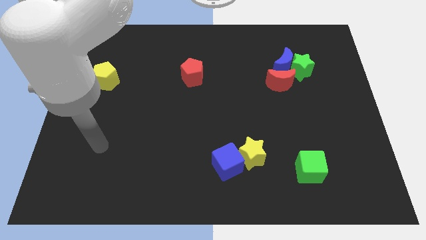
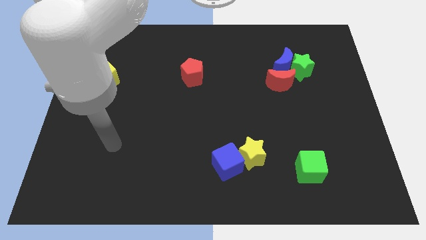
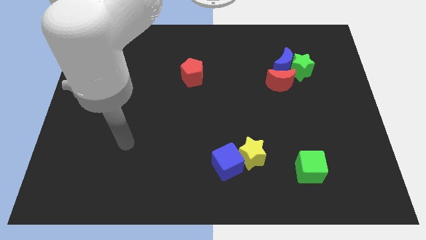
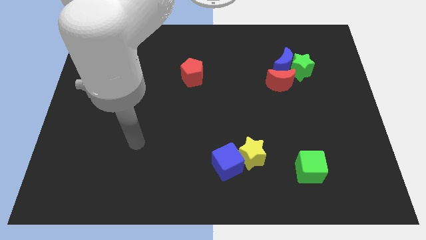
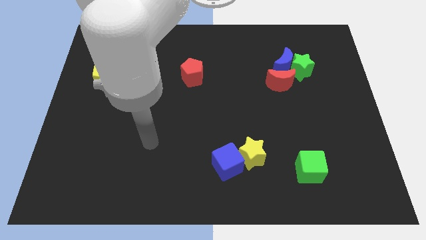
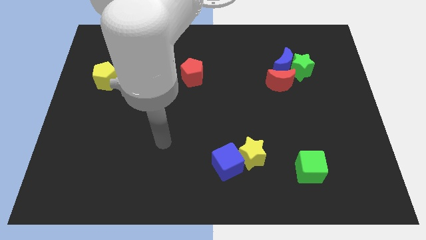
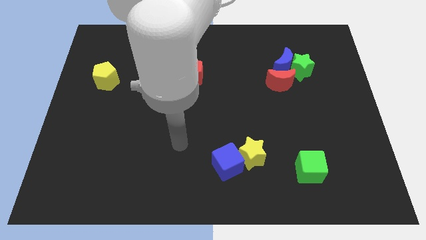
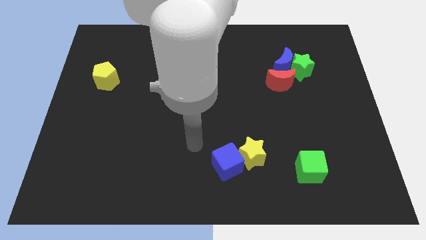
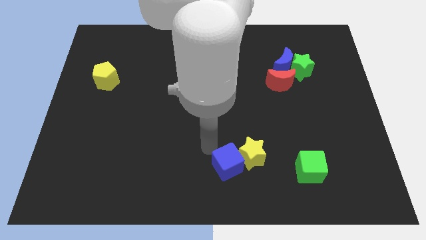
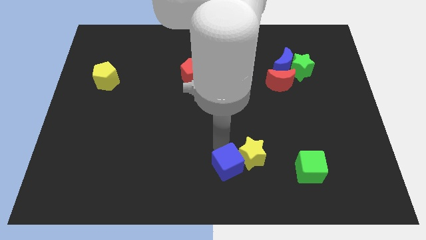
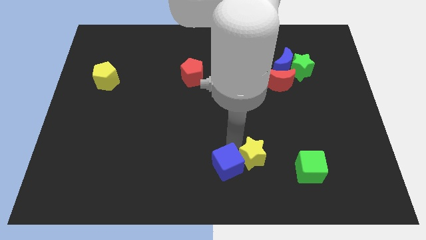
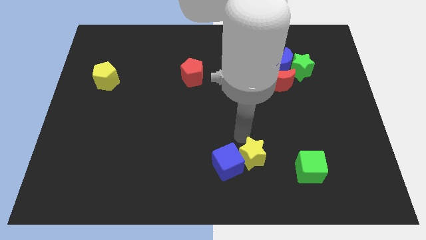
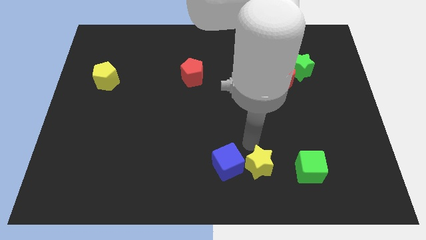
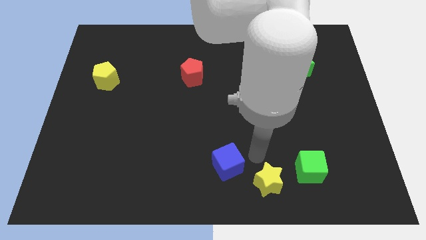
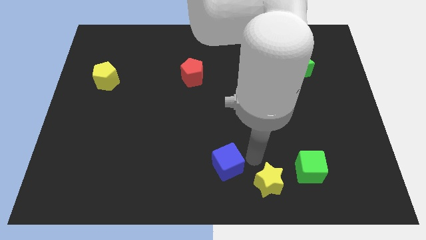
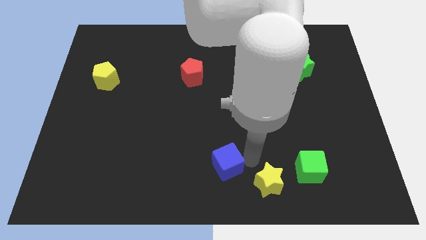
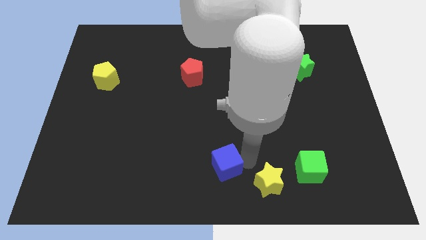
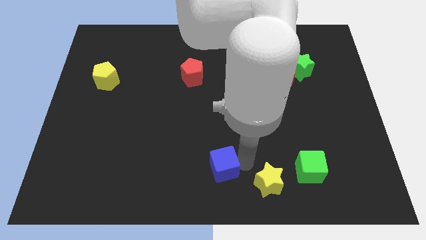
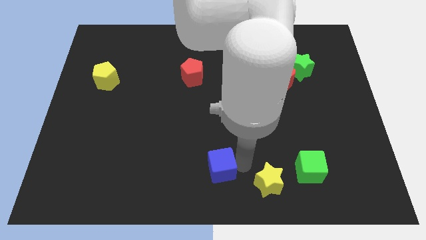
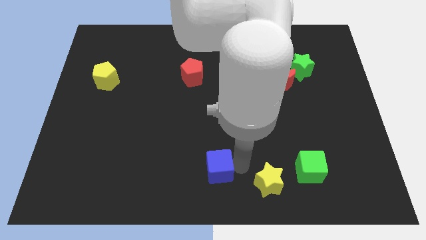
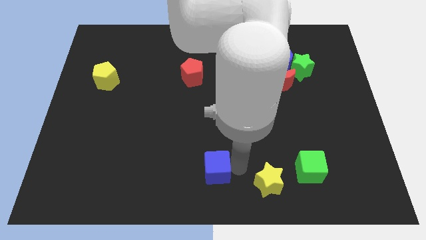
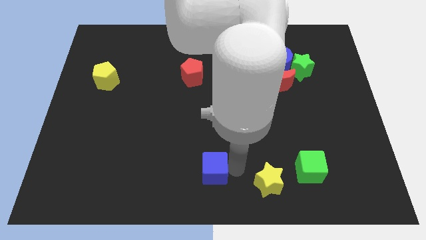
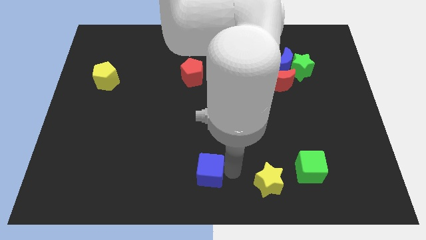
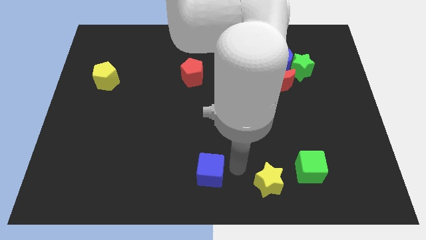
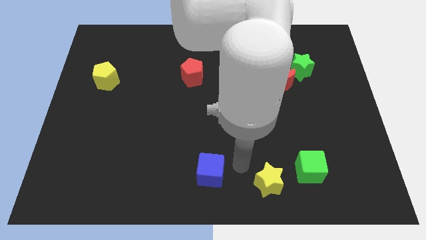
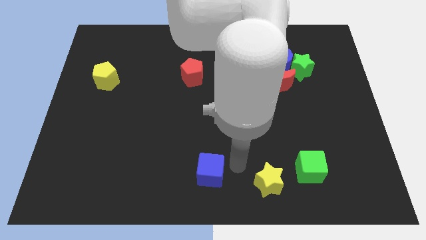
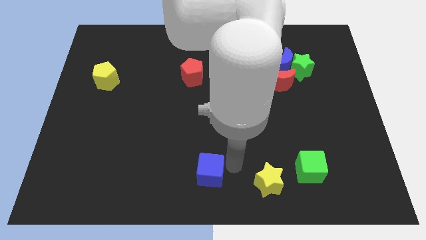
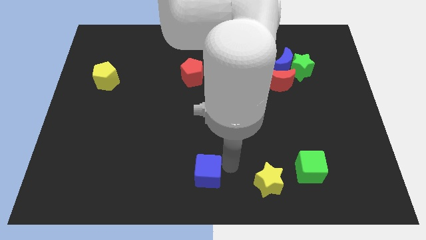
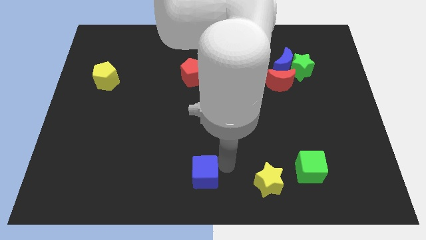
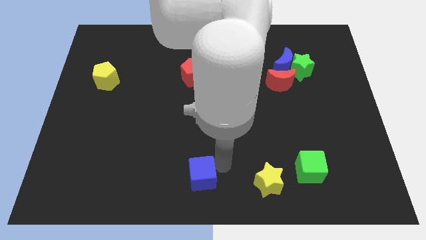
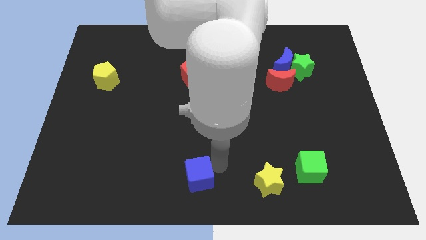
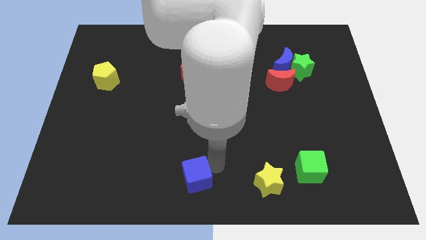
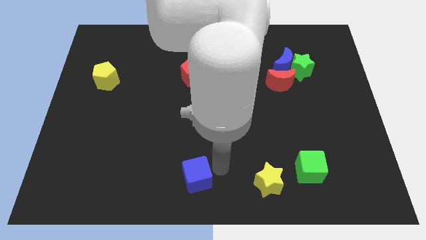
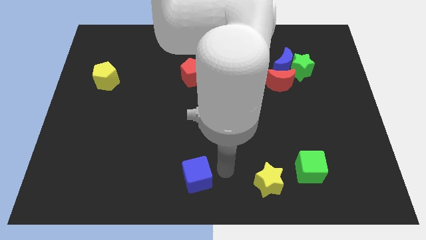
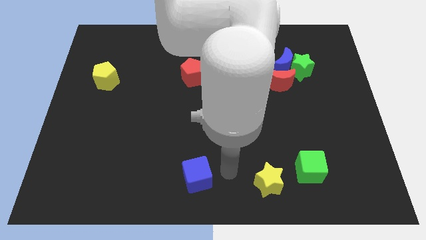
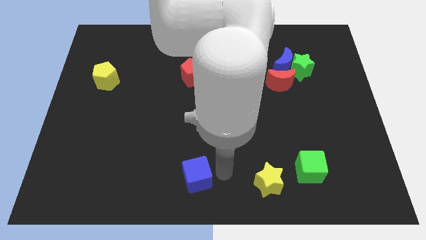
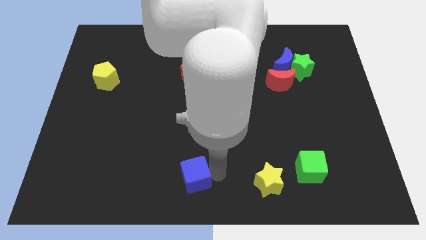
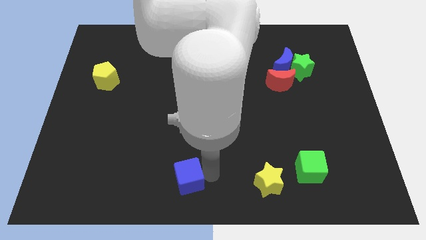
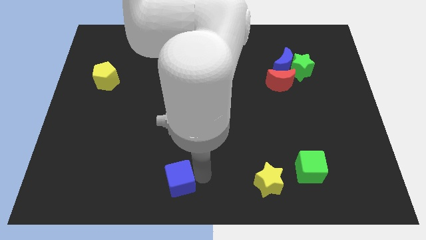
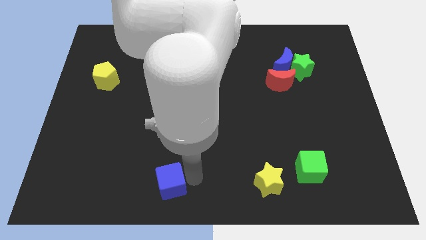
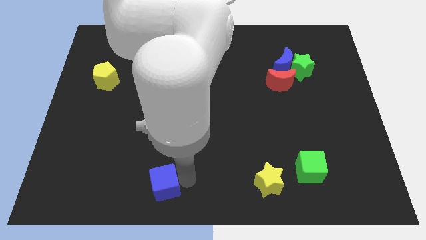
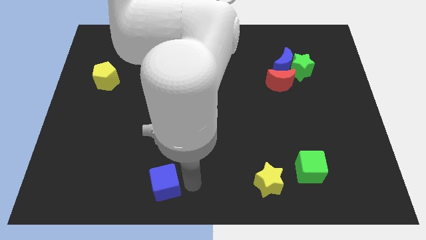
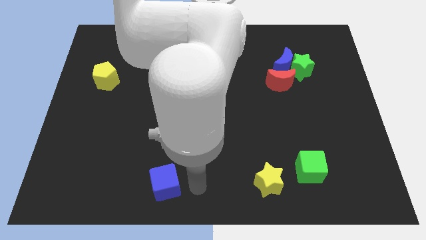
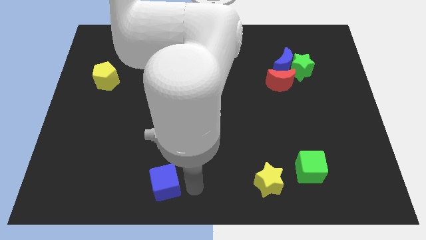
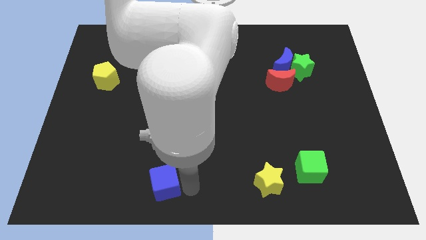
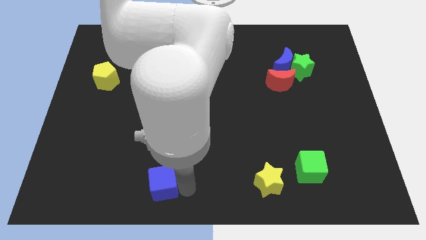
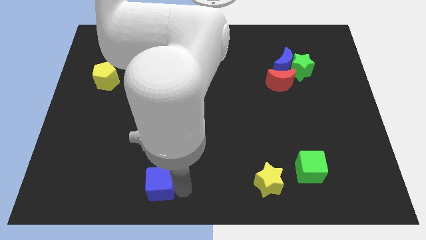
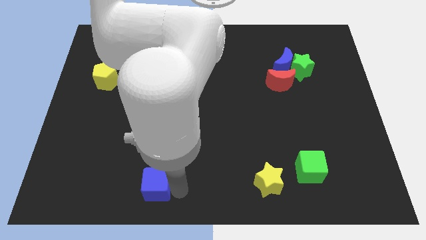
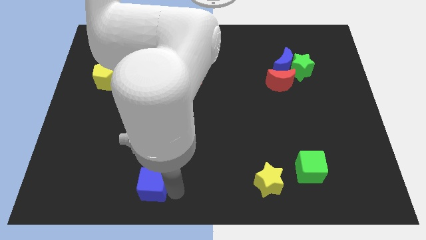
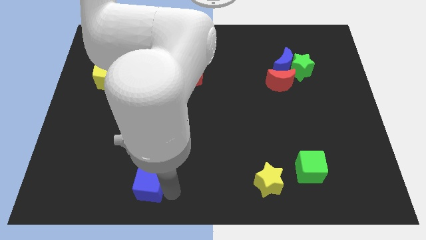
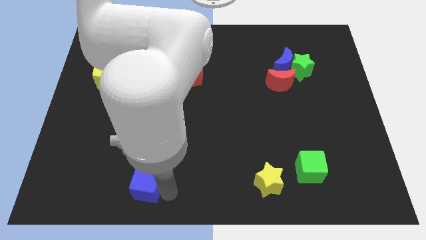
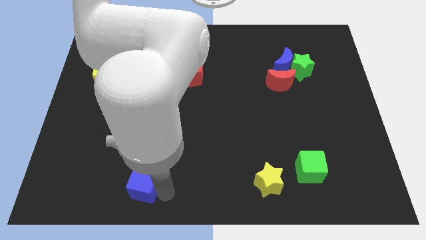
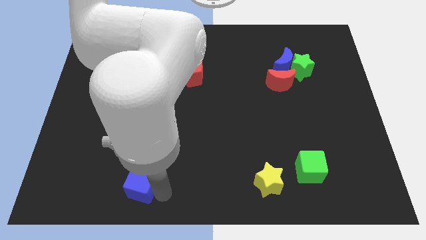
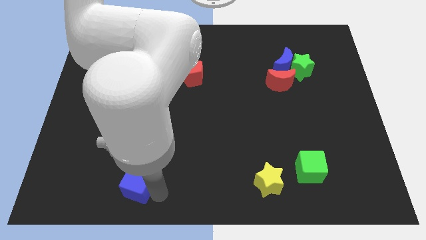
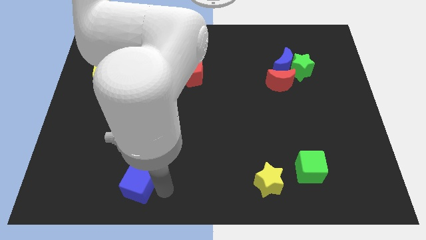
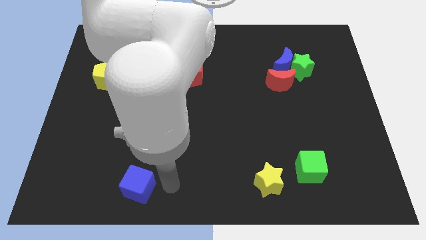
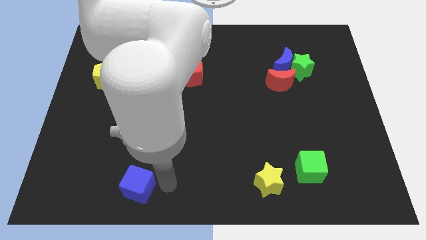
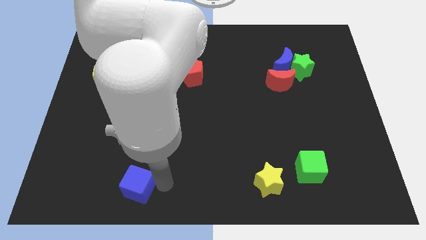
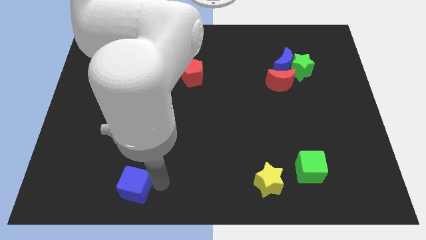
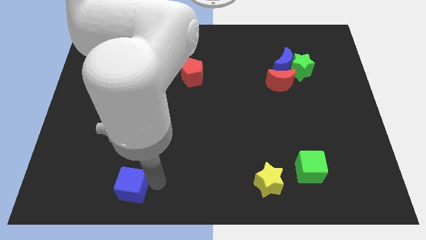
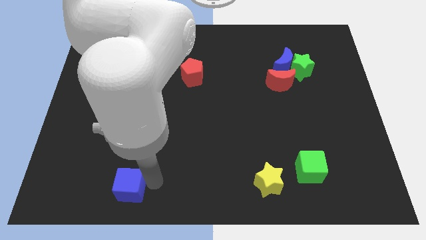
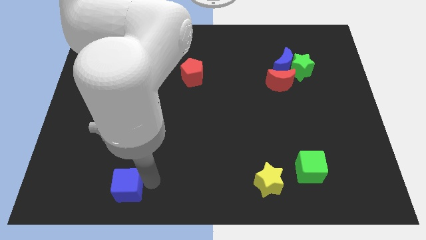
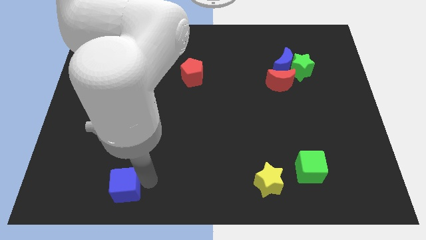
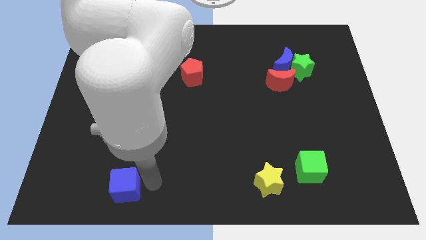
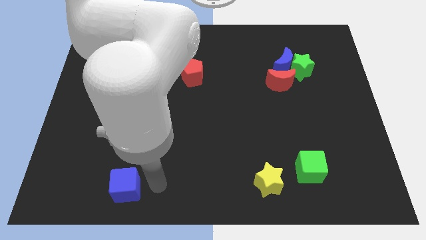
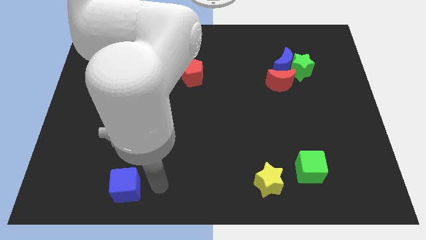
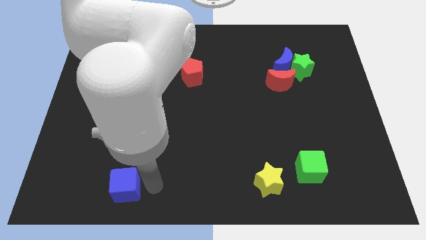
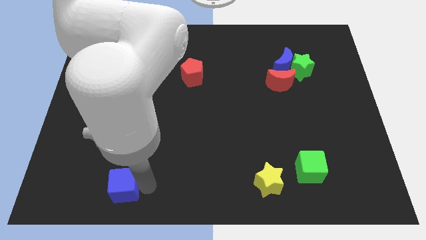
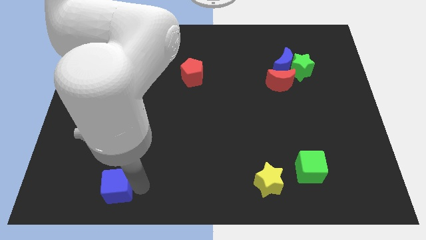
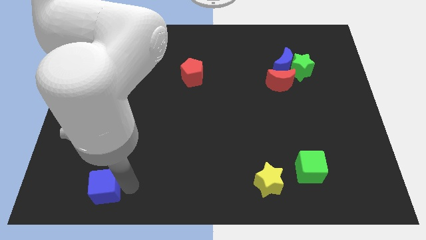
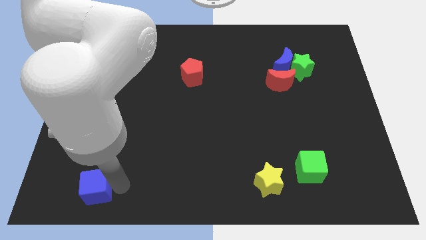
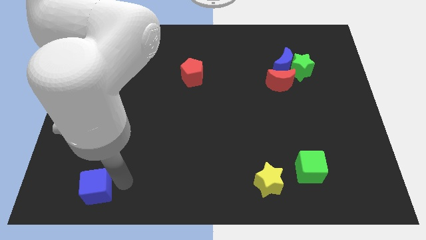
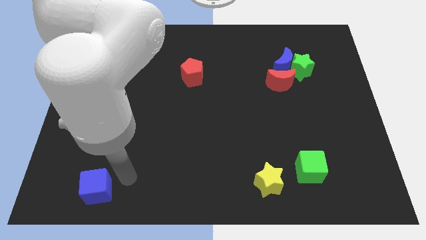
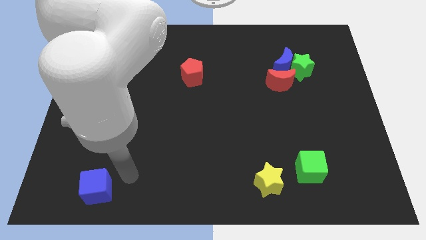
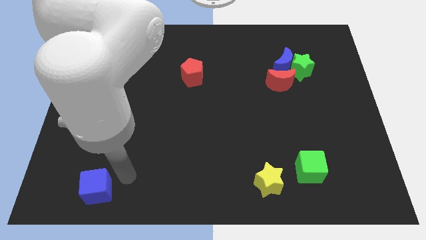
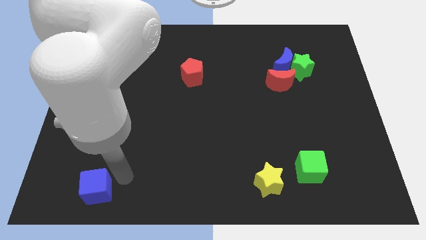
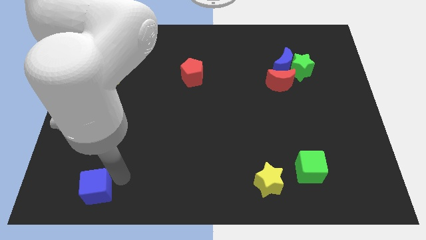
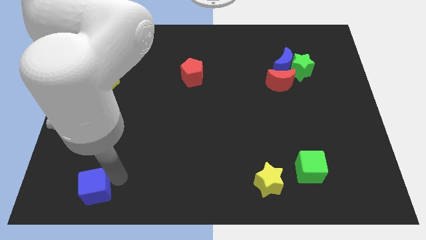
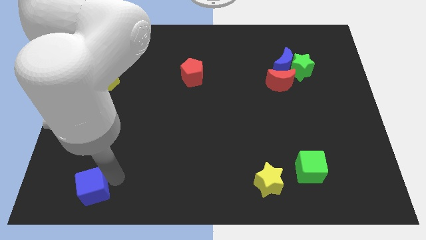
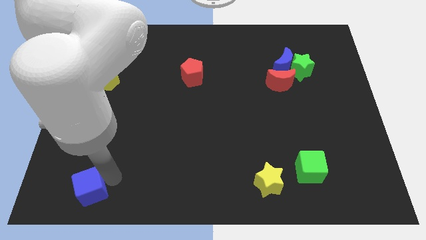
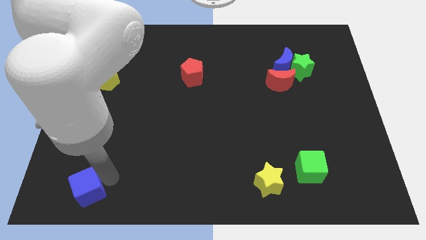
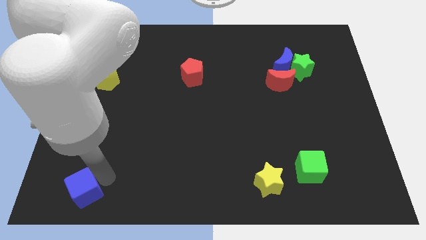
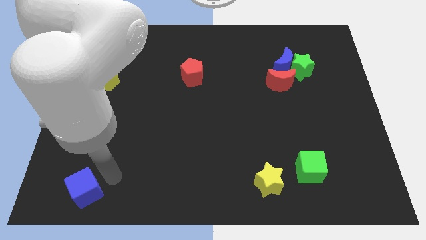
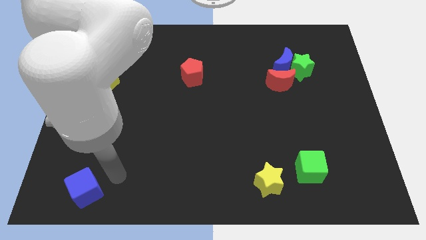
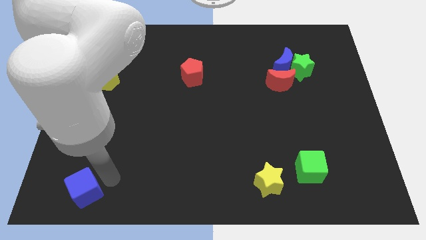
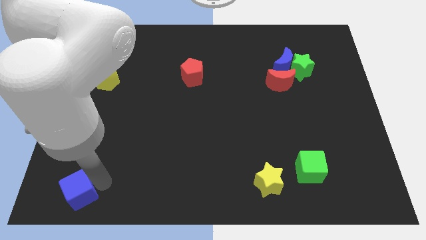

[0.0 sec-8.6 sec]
push the blue cube to the bottom left
